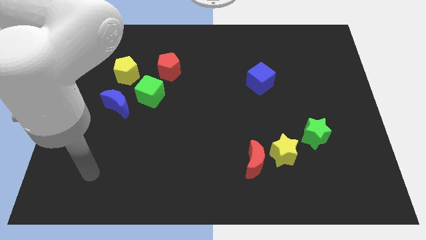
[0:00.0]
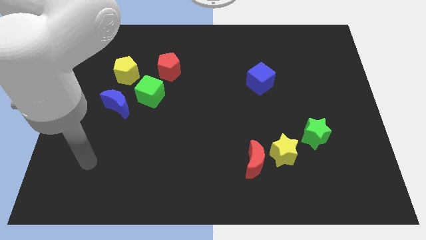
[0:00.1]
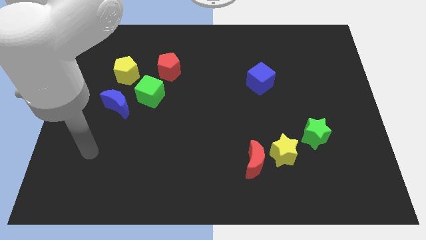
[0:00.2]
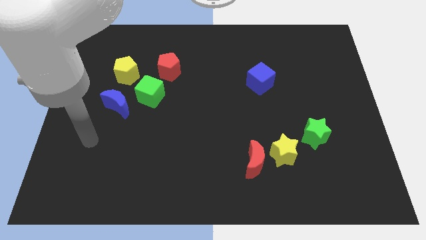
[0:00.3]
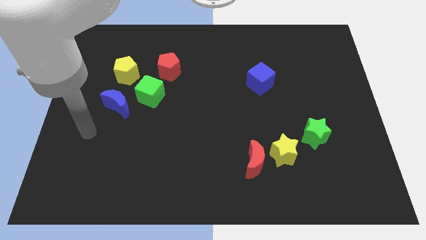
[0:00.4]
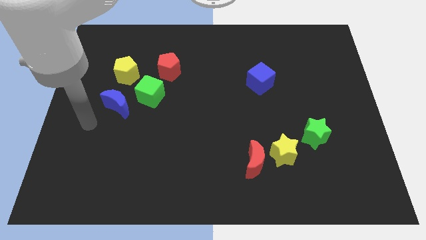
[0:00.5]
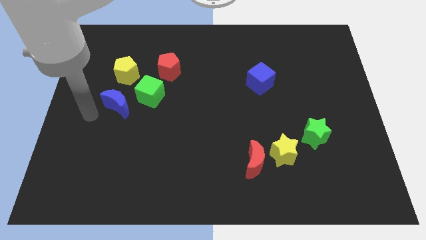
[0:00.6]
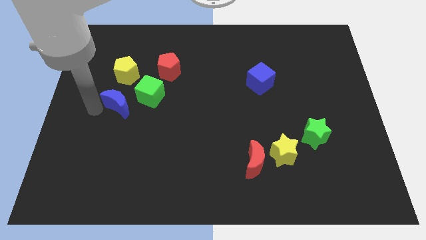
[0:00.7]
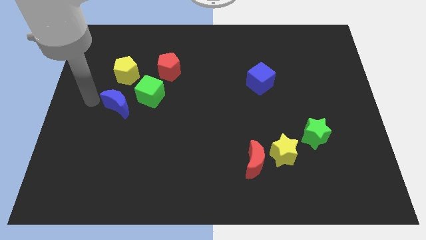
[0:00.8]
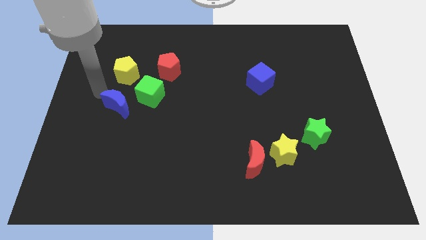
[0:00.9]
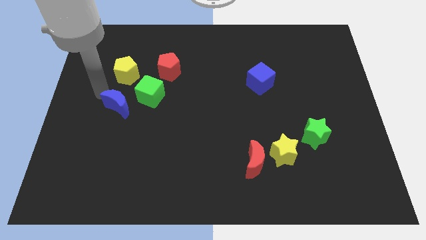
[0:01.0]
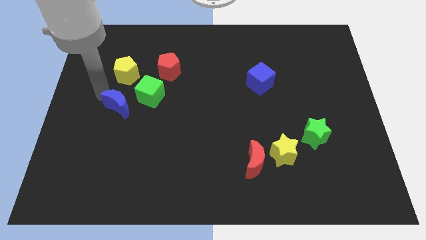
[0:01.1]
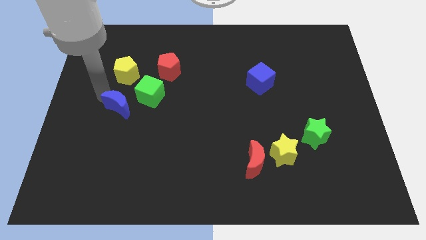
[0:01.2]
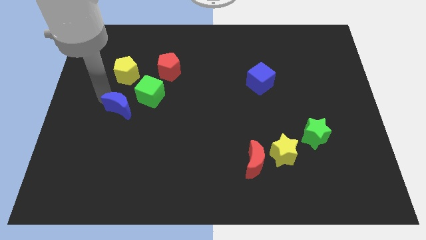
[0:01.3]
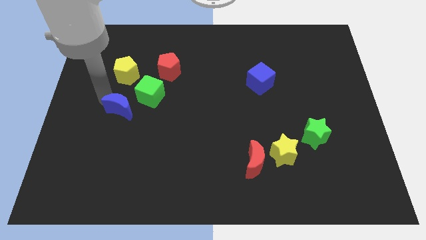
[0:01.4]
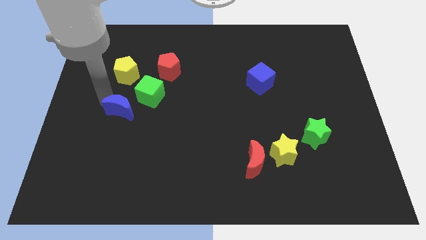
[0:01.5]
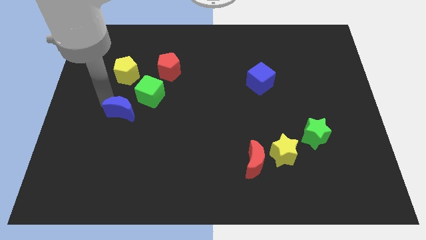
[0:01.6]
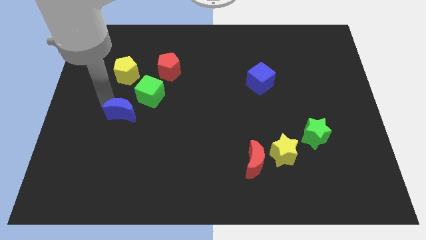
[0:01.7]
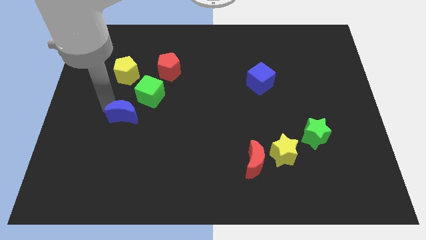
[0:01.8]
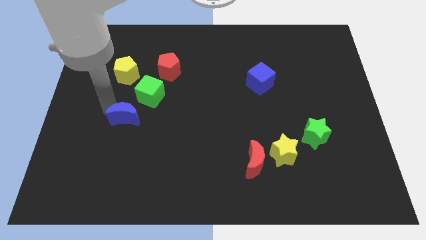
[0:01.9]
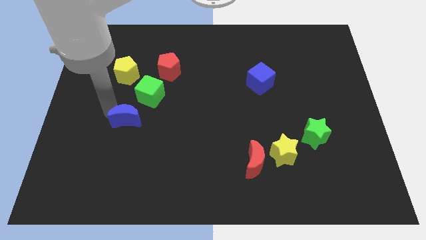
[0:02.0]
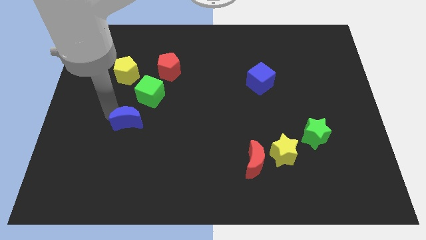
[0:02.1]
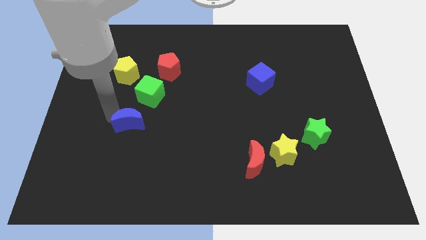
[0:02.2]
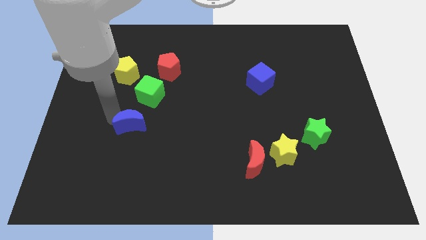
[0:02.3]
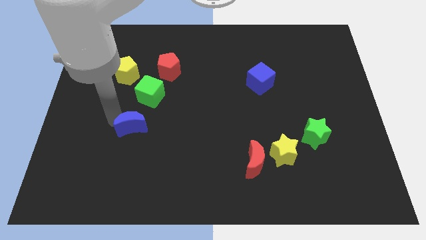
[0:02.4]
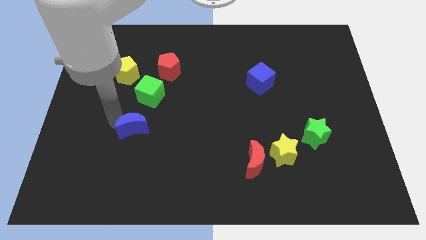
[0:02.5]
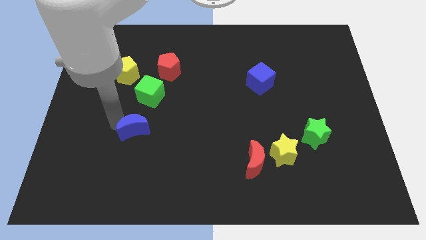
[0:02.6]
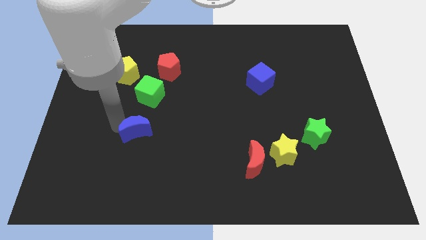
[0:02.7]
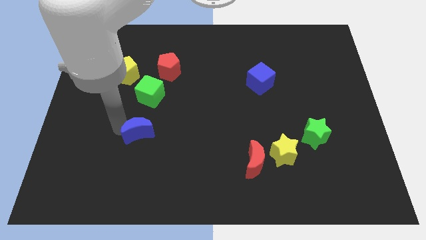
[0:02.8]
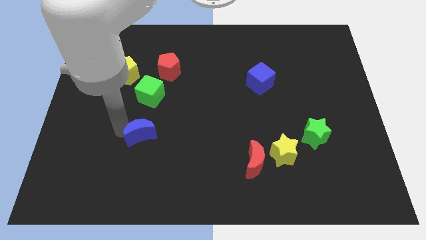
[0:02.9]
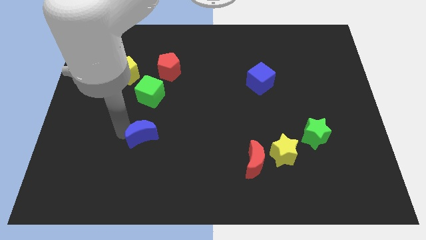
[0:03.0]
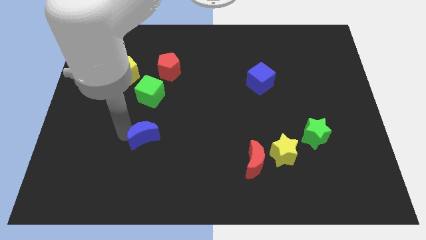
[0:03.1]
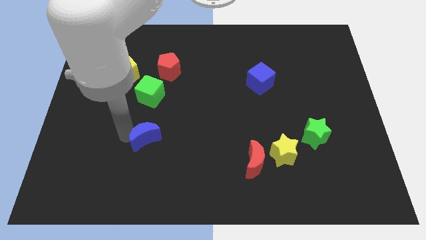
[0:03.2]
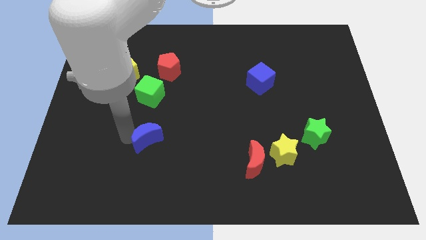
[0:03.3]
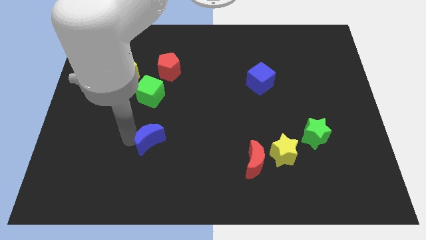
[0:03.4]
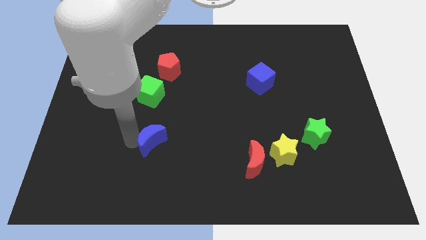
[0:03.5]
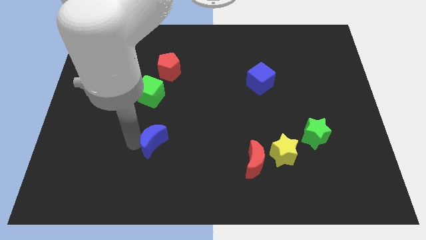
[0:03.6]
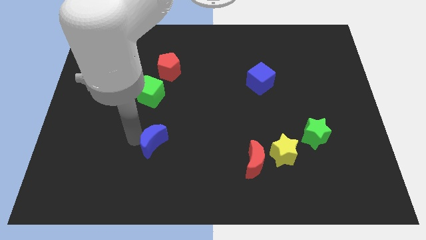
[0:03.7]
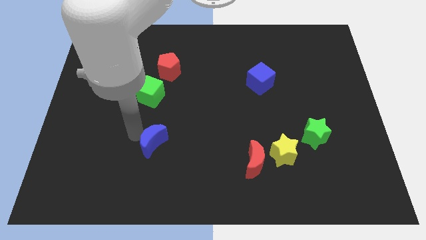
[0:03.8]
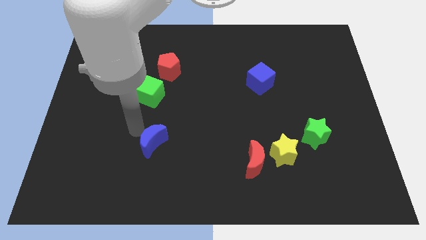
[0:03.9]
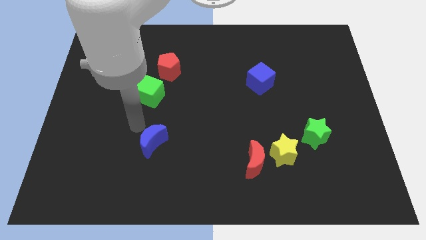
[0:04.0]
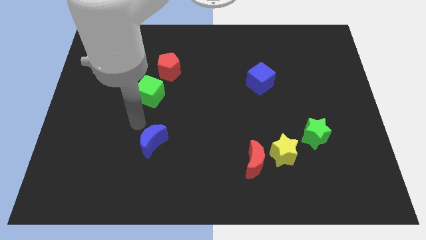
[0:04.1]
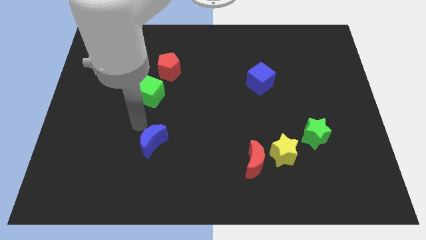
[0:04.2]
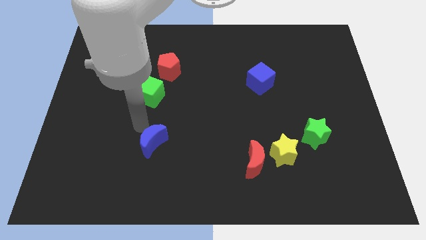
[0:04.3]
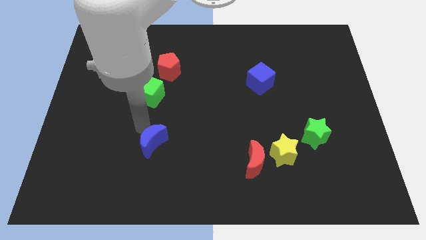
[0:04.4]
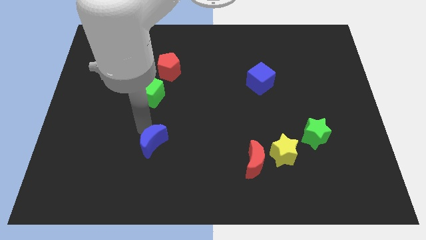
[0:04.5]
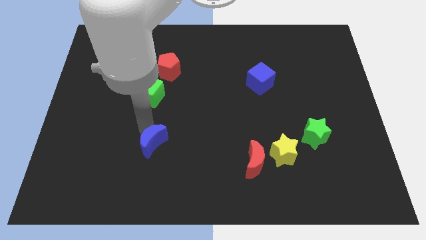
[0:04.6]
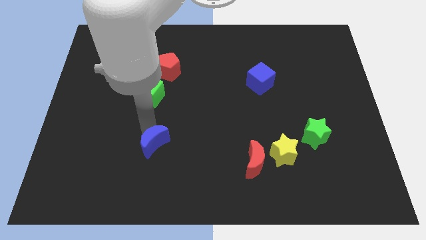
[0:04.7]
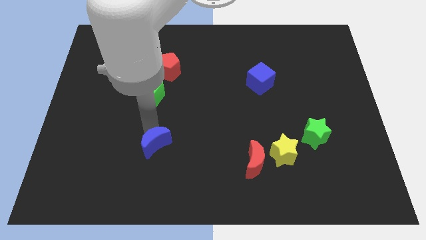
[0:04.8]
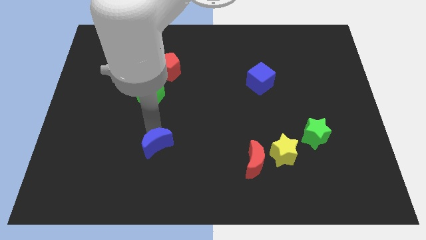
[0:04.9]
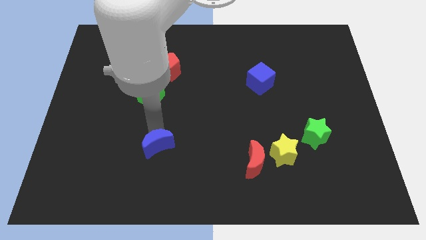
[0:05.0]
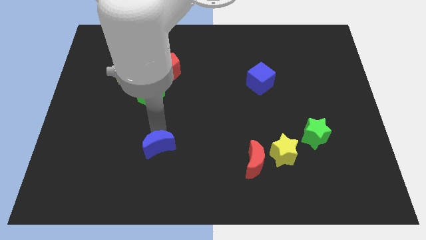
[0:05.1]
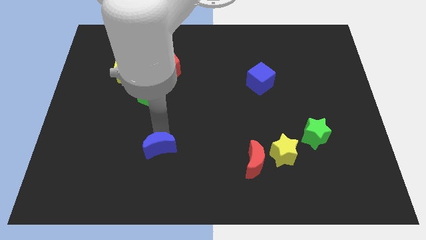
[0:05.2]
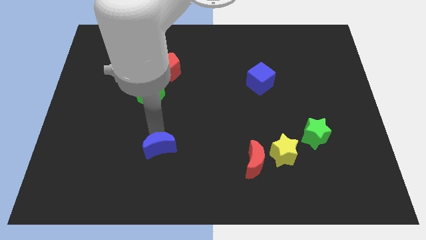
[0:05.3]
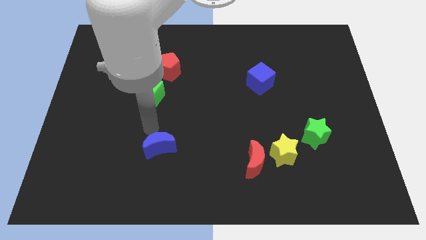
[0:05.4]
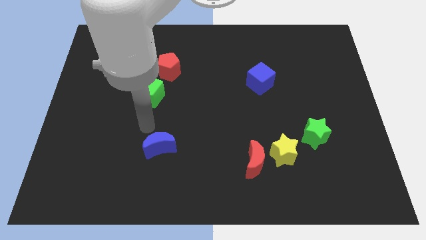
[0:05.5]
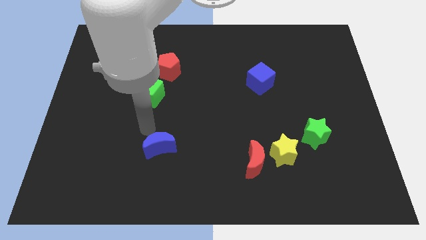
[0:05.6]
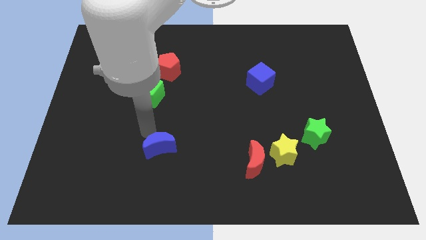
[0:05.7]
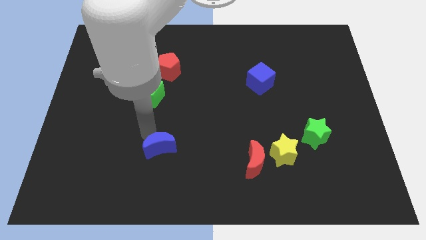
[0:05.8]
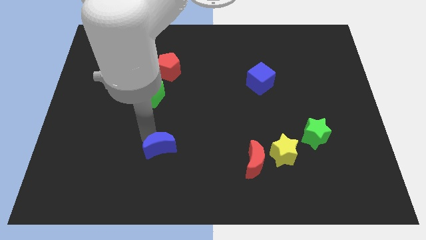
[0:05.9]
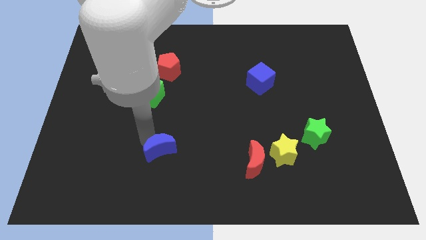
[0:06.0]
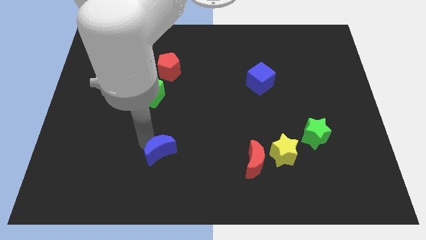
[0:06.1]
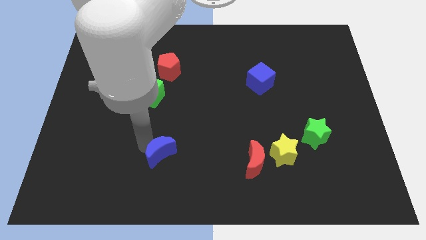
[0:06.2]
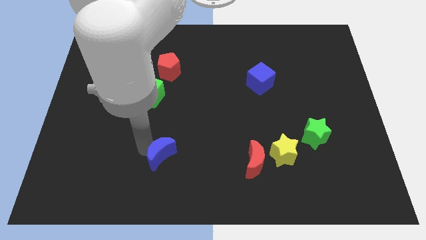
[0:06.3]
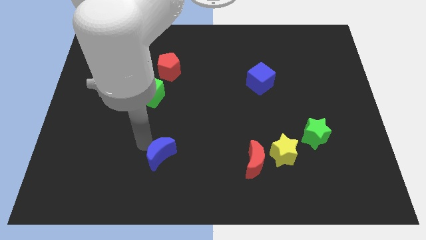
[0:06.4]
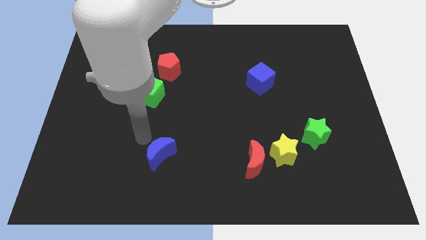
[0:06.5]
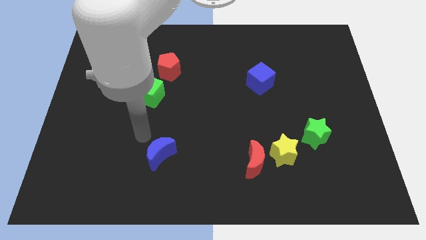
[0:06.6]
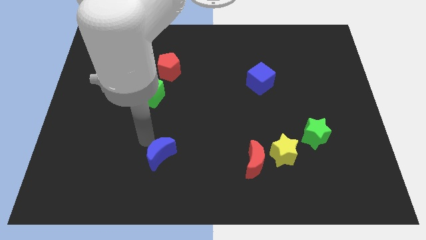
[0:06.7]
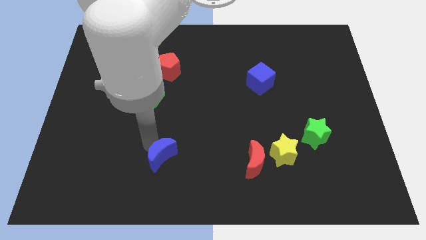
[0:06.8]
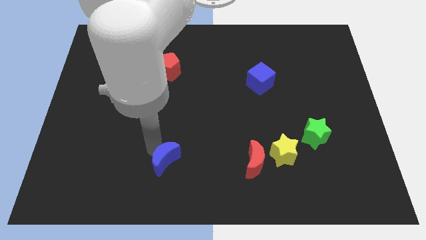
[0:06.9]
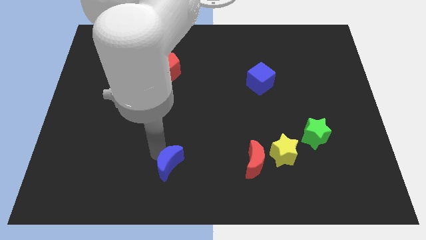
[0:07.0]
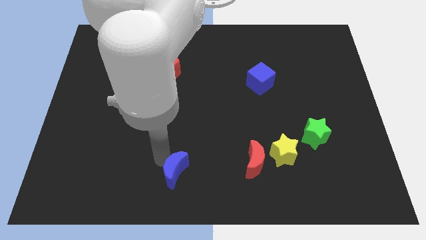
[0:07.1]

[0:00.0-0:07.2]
put the blue moon to the bottom side

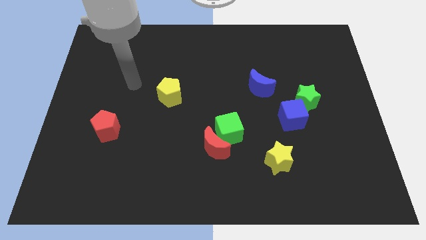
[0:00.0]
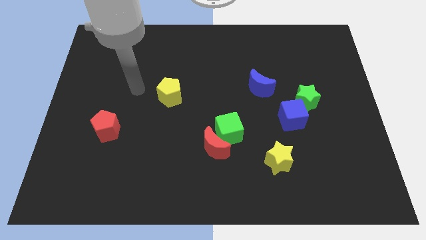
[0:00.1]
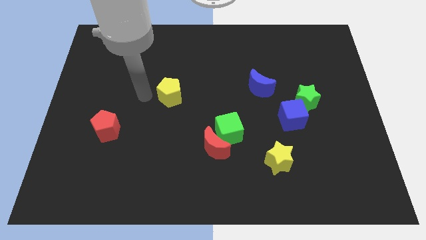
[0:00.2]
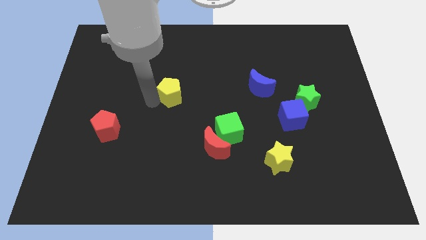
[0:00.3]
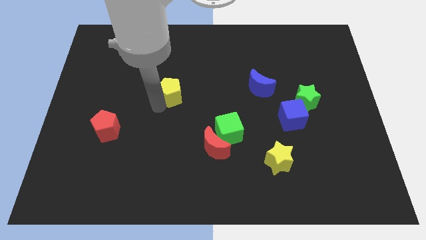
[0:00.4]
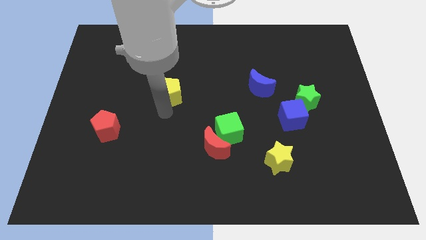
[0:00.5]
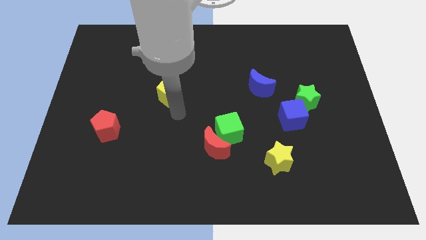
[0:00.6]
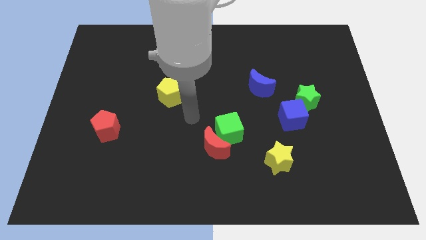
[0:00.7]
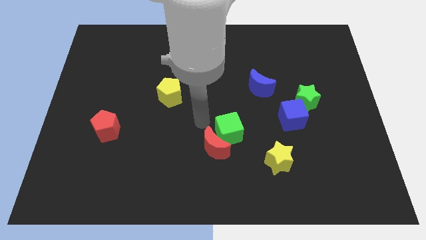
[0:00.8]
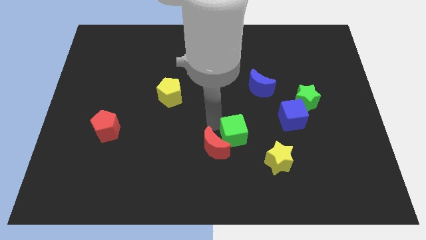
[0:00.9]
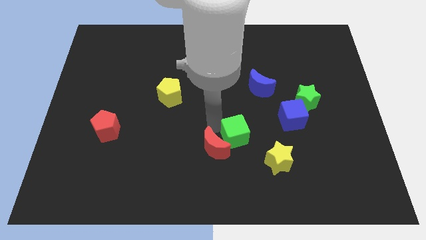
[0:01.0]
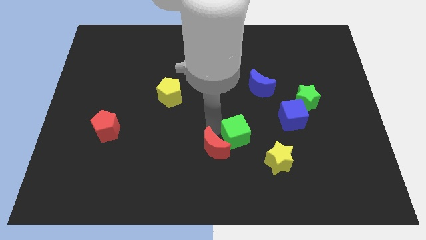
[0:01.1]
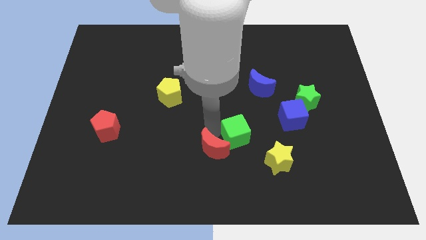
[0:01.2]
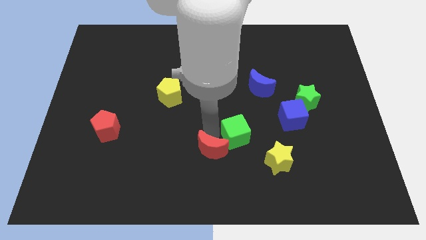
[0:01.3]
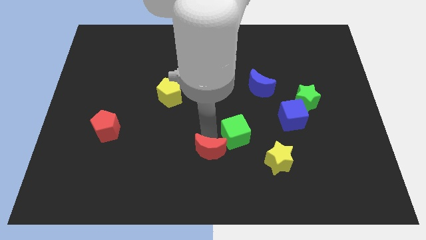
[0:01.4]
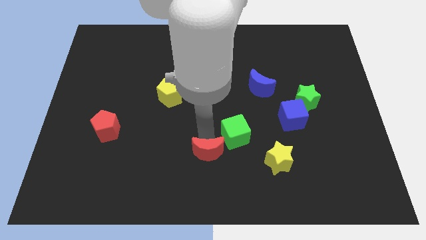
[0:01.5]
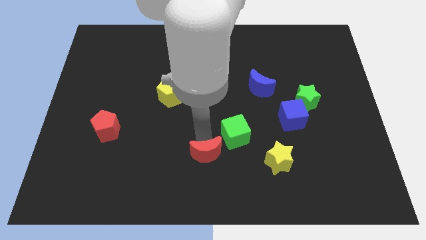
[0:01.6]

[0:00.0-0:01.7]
put the red moon to the bottom
